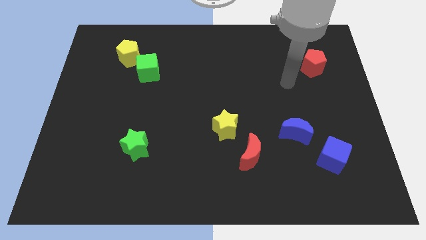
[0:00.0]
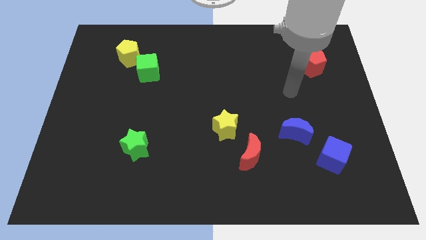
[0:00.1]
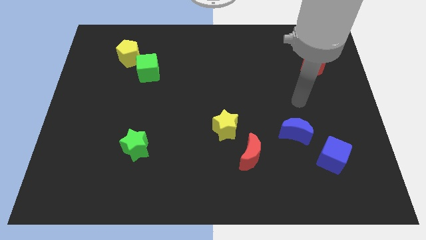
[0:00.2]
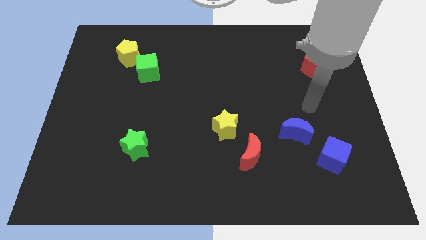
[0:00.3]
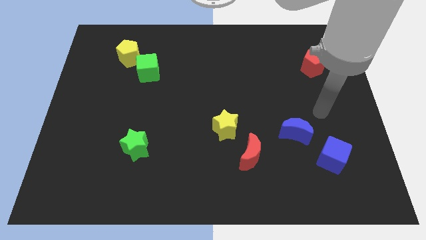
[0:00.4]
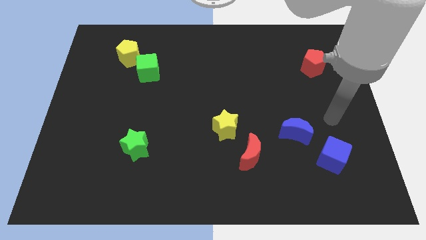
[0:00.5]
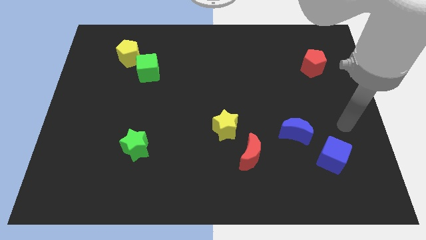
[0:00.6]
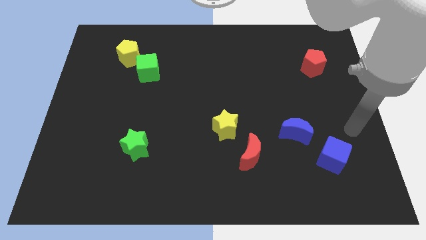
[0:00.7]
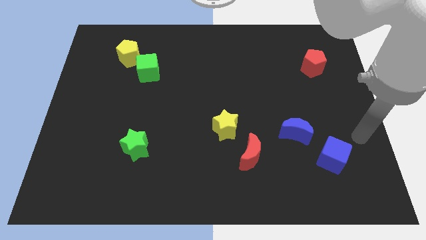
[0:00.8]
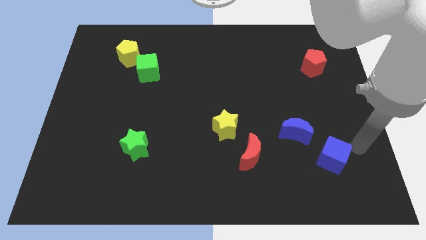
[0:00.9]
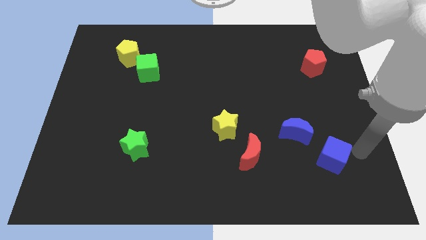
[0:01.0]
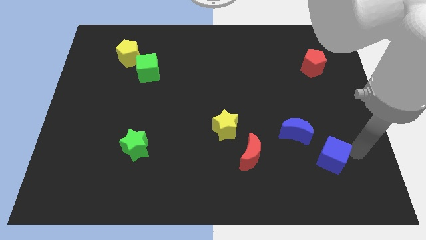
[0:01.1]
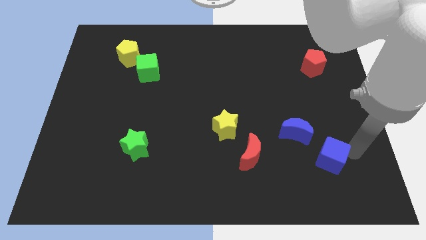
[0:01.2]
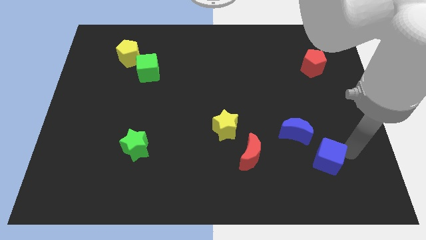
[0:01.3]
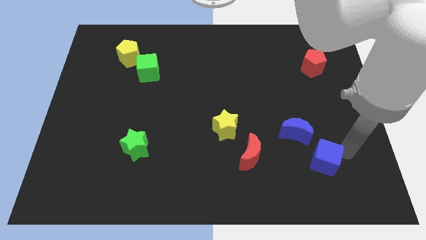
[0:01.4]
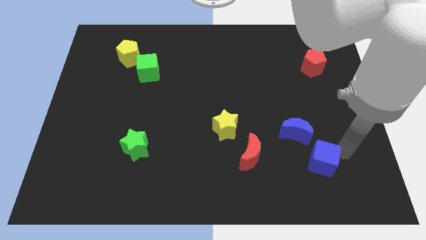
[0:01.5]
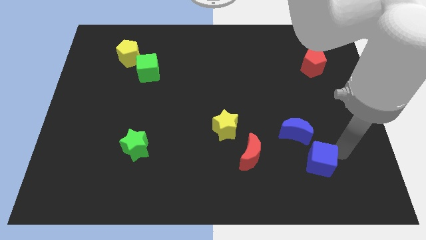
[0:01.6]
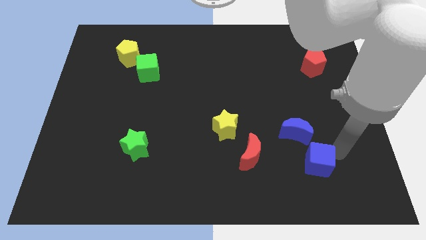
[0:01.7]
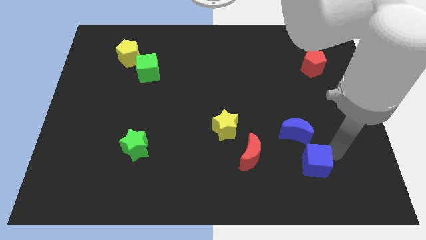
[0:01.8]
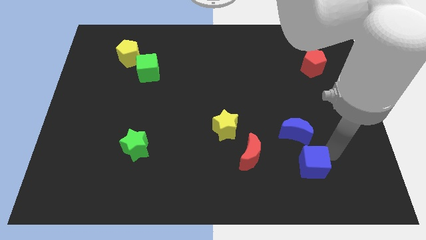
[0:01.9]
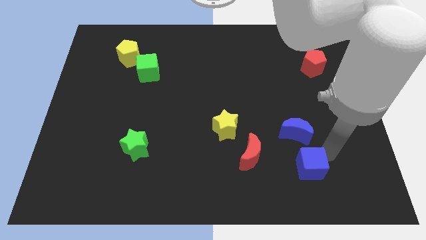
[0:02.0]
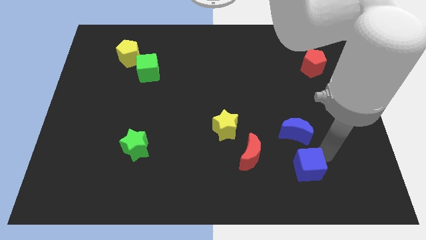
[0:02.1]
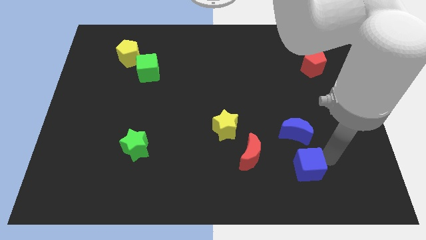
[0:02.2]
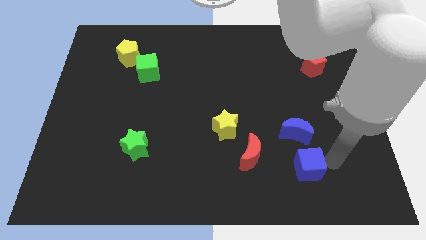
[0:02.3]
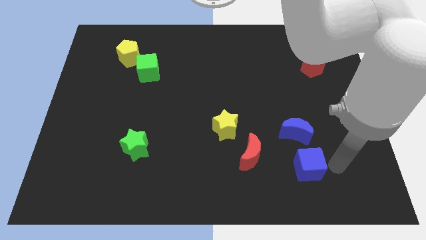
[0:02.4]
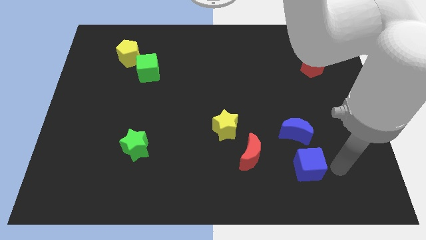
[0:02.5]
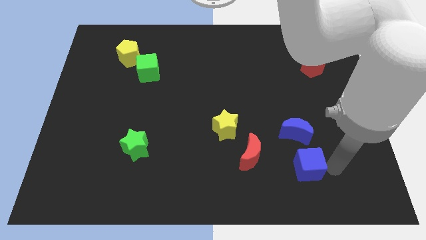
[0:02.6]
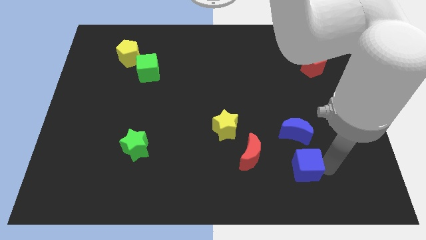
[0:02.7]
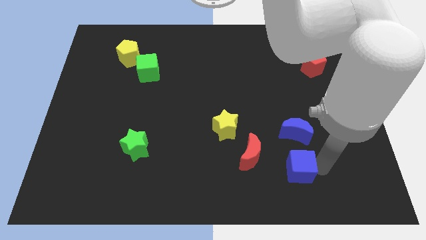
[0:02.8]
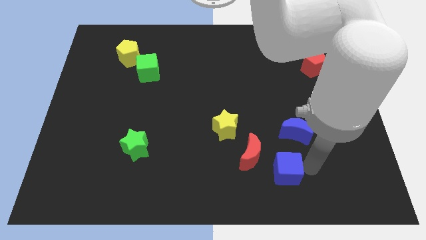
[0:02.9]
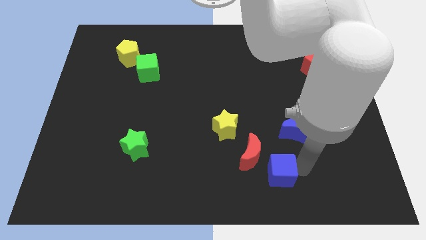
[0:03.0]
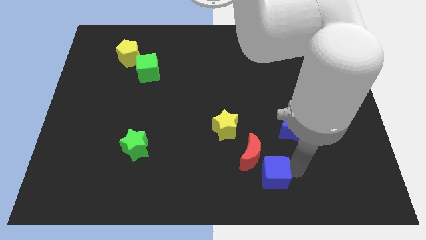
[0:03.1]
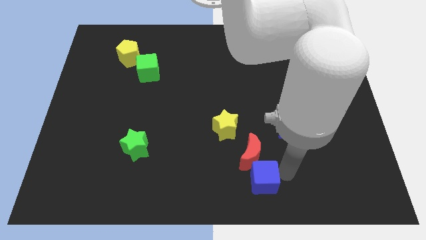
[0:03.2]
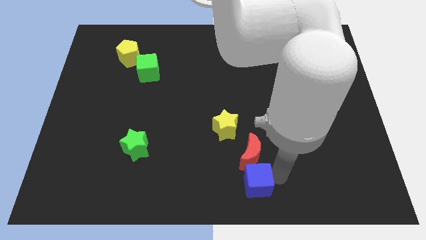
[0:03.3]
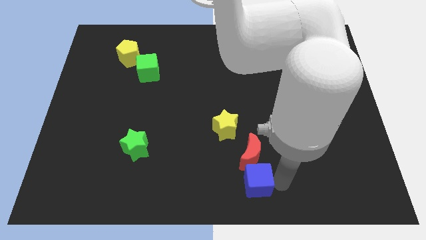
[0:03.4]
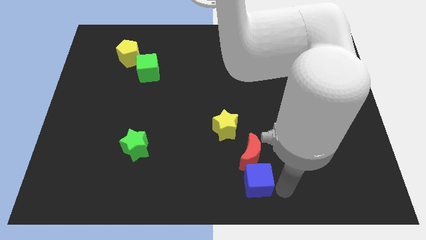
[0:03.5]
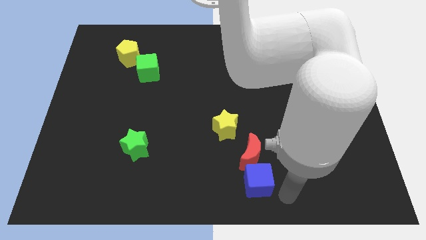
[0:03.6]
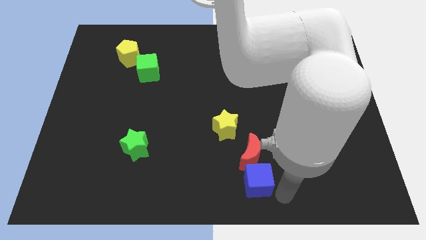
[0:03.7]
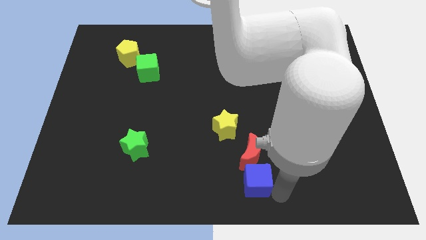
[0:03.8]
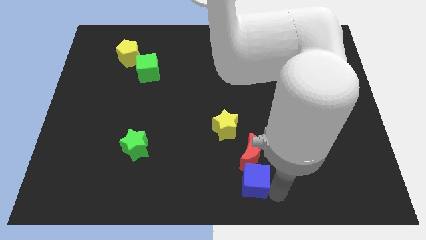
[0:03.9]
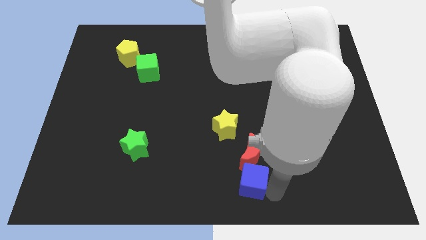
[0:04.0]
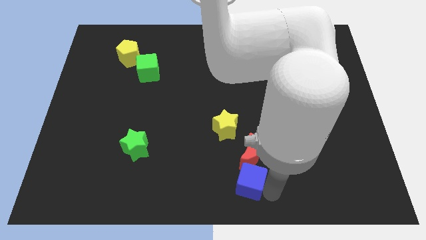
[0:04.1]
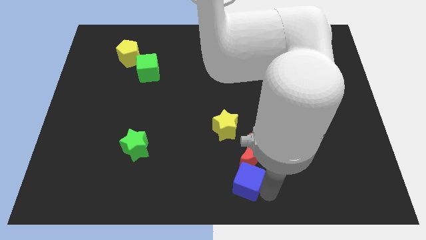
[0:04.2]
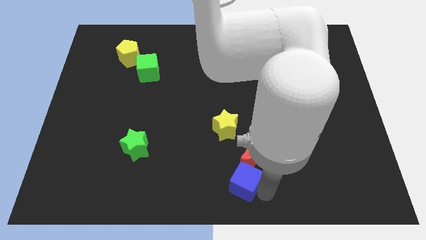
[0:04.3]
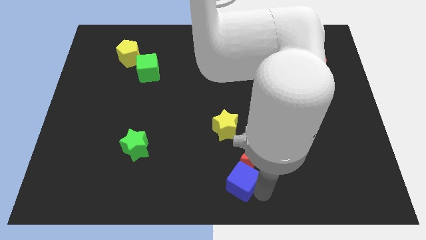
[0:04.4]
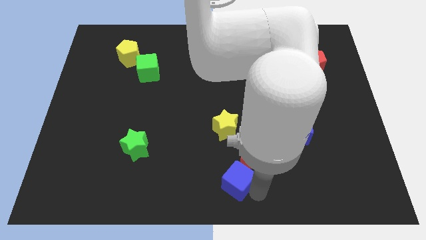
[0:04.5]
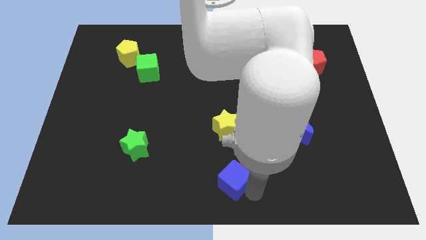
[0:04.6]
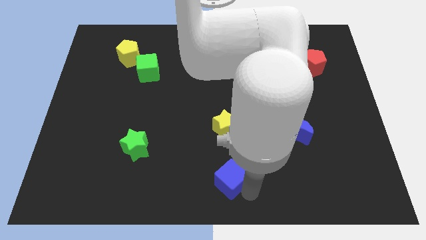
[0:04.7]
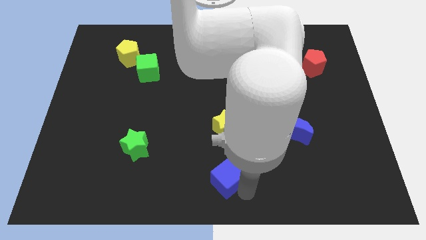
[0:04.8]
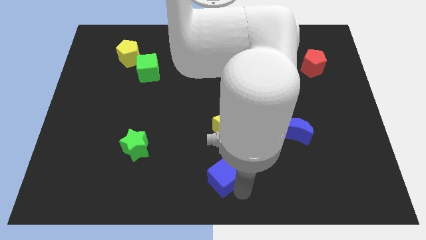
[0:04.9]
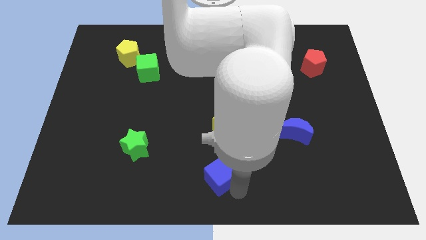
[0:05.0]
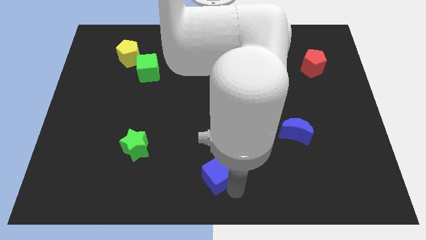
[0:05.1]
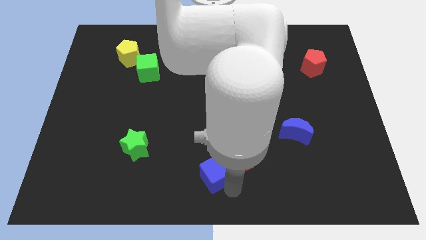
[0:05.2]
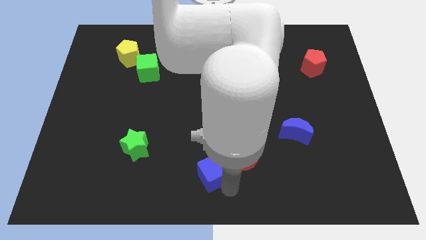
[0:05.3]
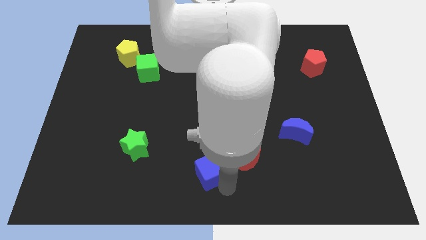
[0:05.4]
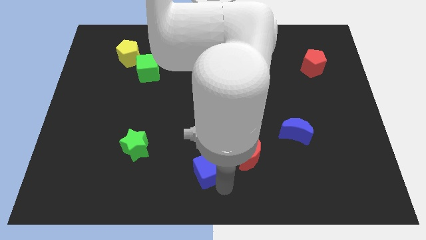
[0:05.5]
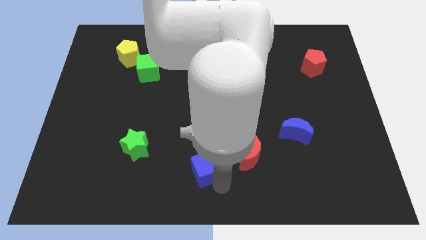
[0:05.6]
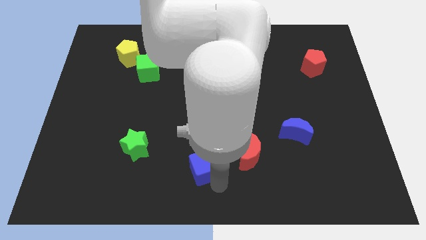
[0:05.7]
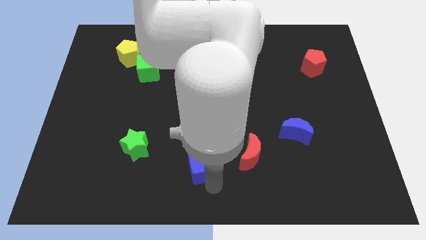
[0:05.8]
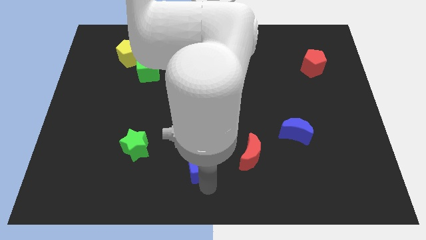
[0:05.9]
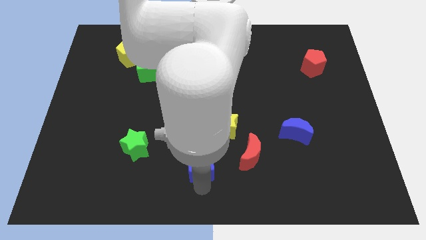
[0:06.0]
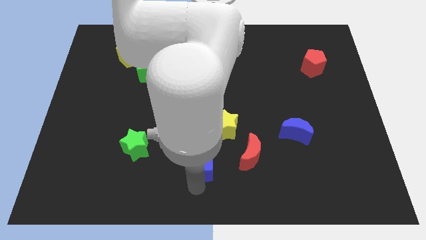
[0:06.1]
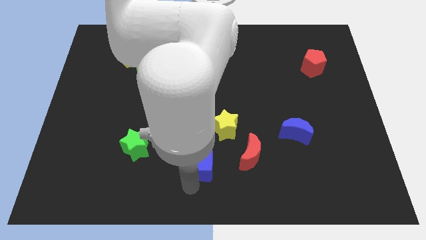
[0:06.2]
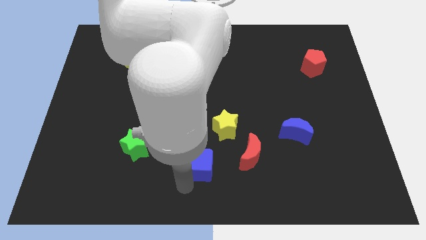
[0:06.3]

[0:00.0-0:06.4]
put the blue cube to the right of the green star

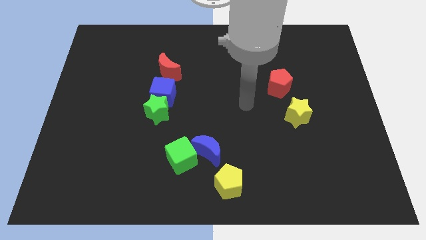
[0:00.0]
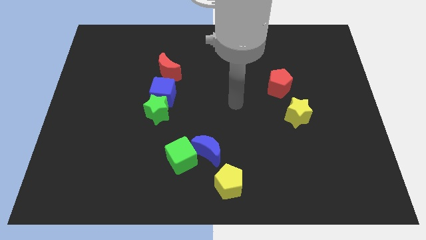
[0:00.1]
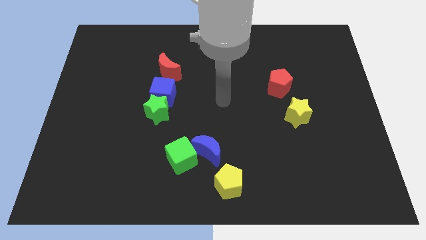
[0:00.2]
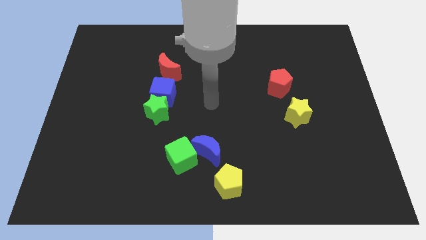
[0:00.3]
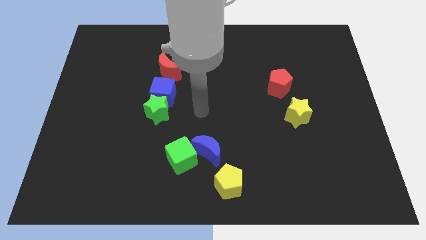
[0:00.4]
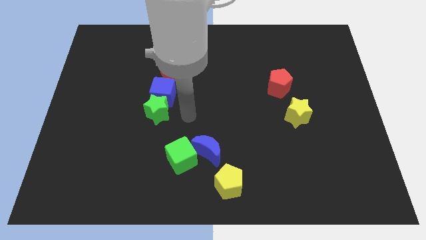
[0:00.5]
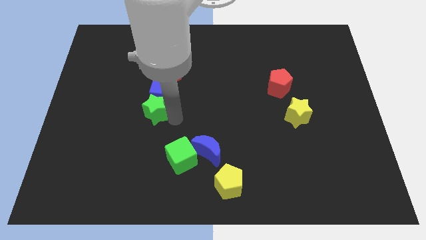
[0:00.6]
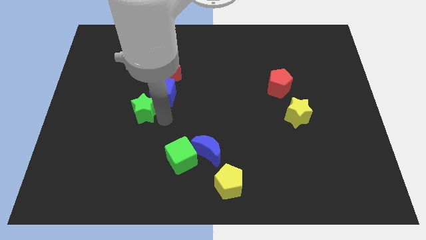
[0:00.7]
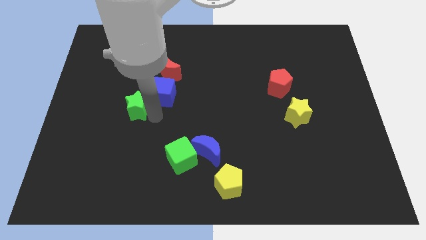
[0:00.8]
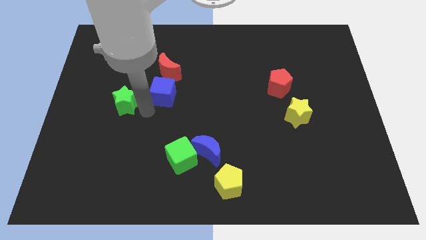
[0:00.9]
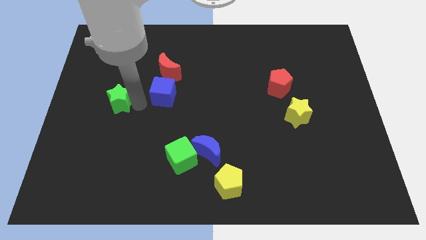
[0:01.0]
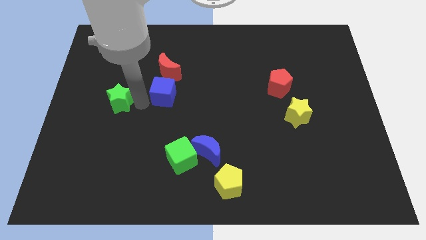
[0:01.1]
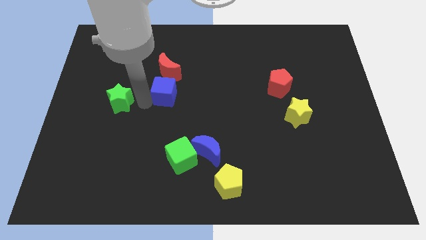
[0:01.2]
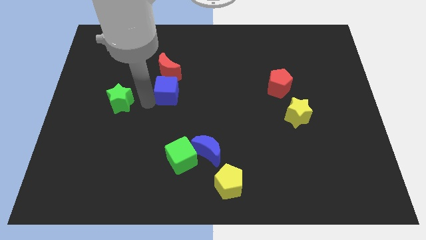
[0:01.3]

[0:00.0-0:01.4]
push the blue cube to the bottom right of the red moon

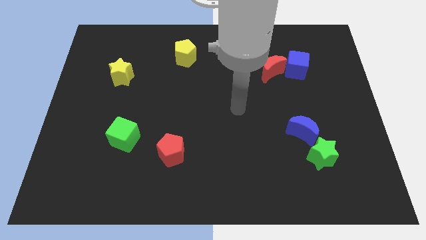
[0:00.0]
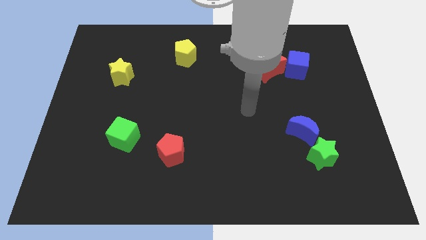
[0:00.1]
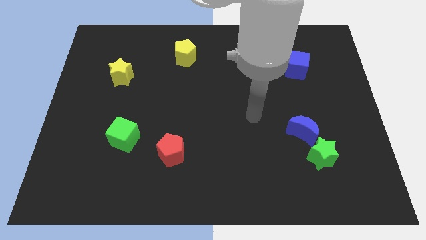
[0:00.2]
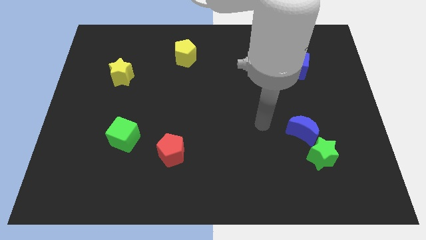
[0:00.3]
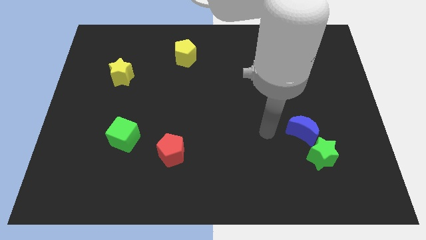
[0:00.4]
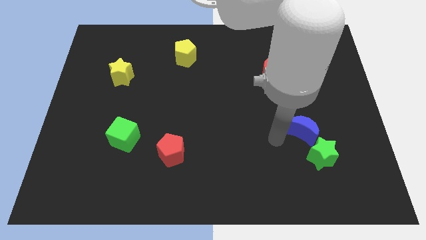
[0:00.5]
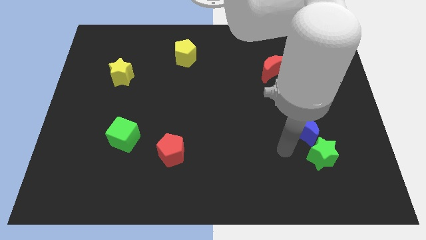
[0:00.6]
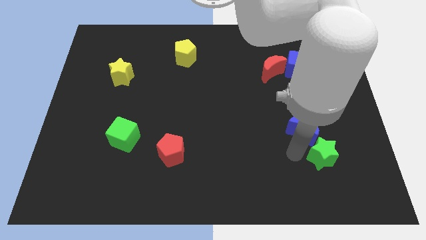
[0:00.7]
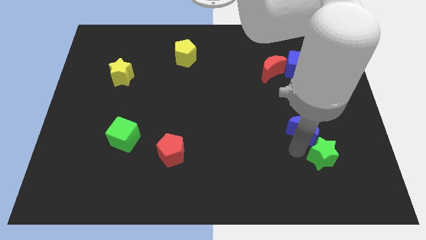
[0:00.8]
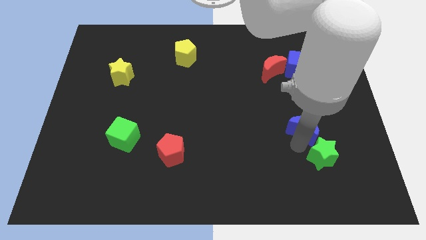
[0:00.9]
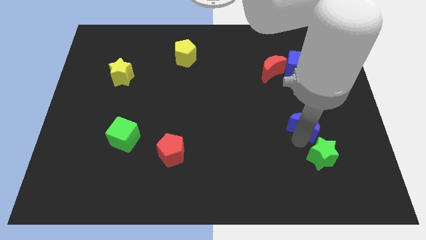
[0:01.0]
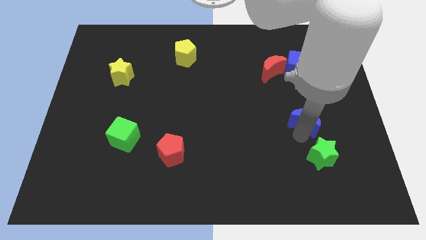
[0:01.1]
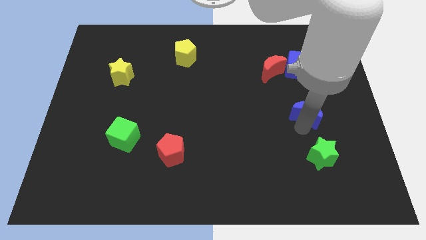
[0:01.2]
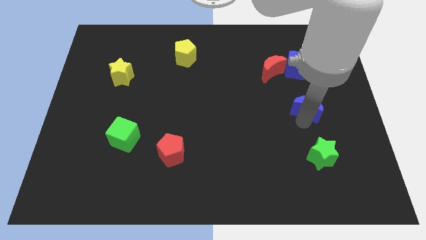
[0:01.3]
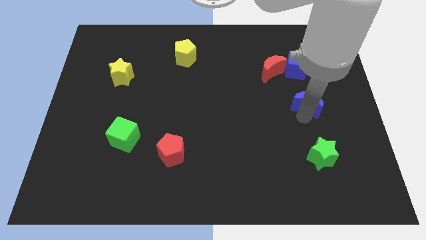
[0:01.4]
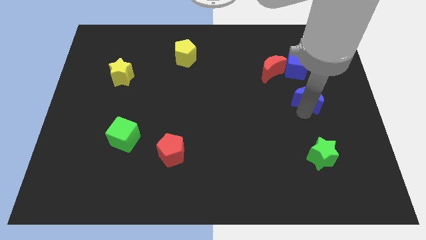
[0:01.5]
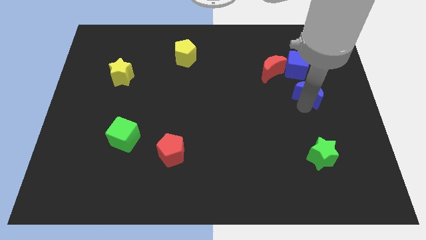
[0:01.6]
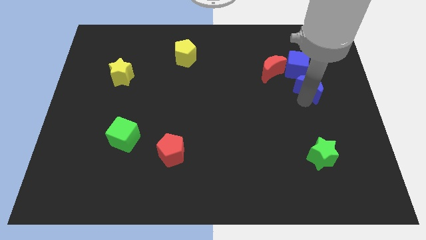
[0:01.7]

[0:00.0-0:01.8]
move the blue moon to the bottom right of the blue cube
